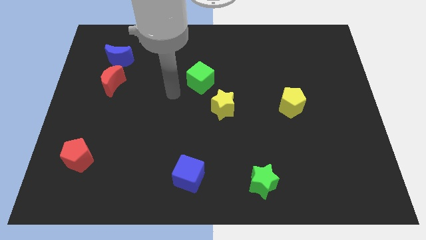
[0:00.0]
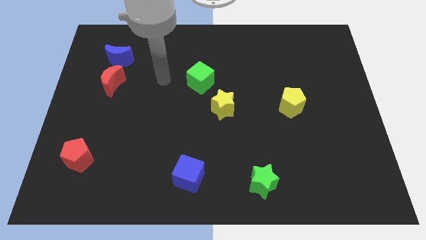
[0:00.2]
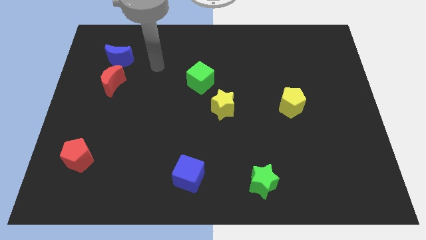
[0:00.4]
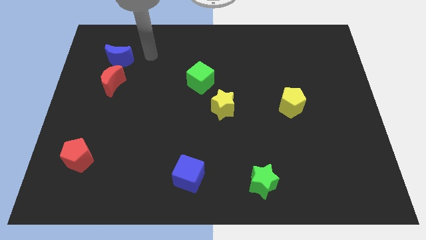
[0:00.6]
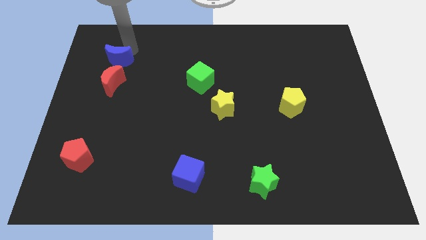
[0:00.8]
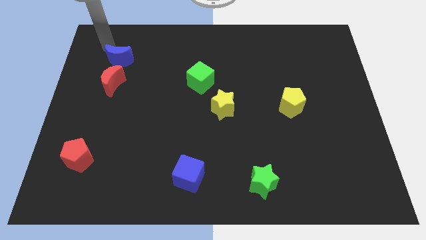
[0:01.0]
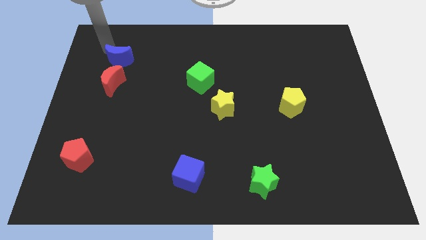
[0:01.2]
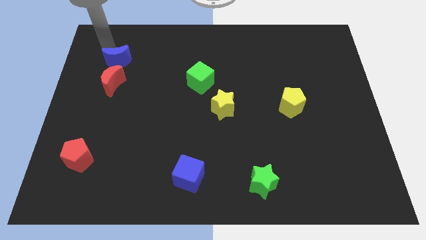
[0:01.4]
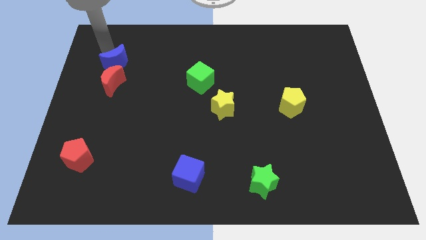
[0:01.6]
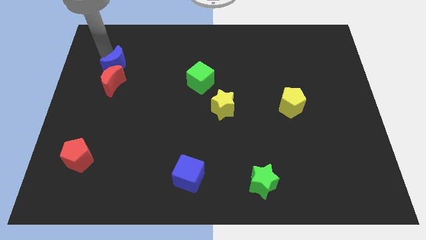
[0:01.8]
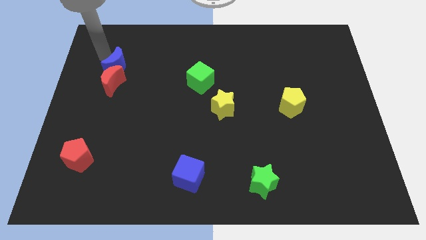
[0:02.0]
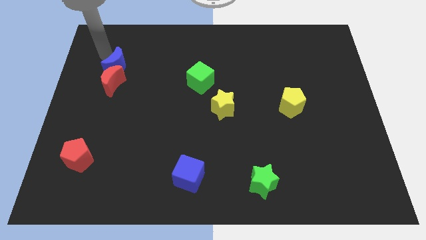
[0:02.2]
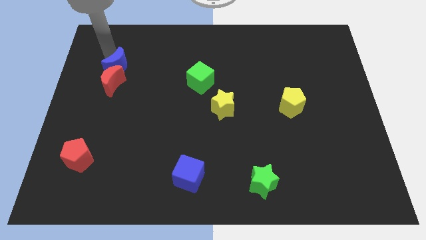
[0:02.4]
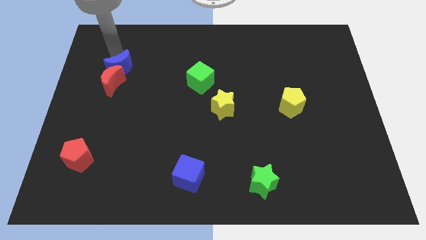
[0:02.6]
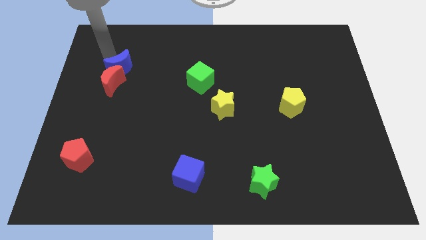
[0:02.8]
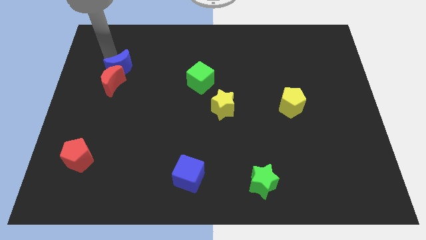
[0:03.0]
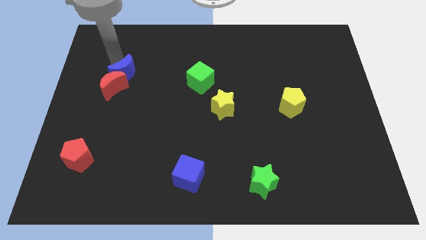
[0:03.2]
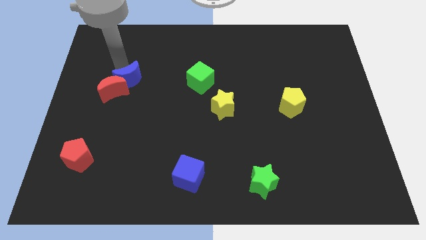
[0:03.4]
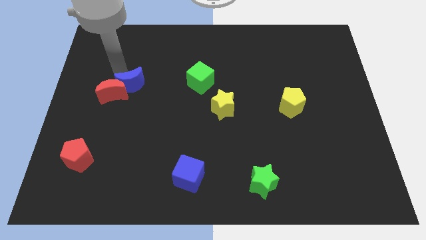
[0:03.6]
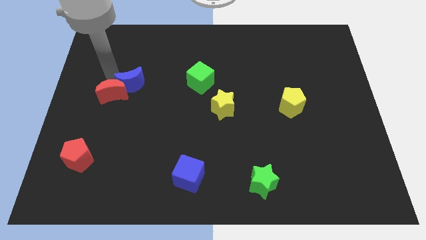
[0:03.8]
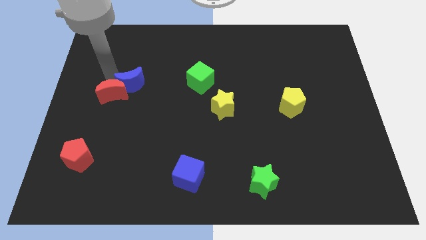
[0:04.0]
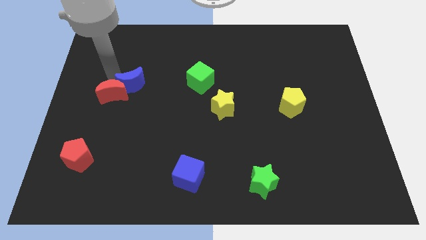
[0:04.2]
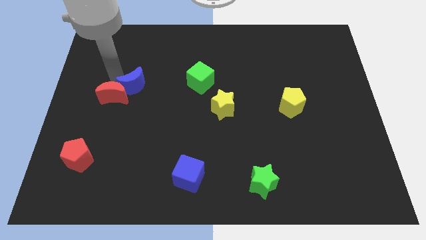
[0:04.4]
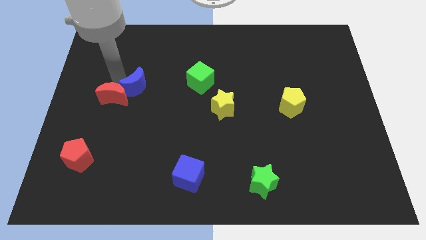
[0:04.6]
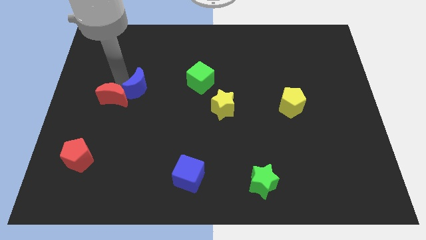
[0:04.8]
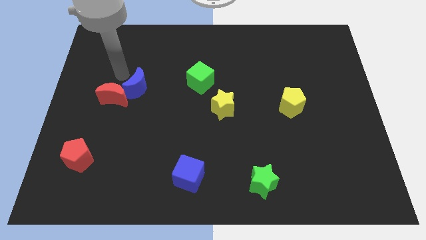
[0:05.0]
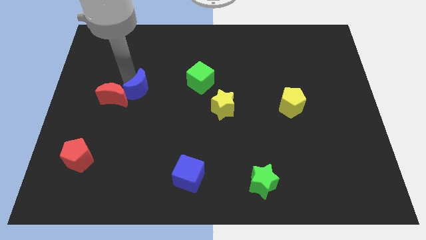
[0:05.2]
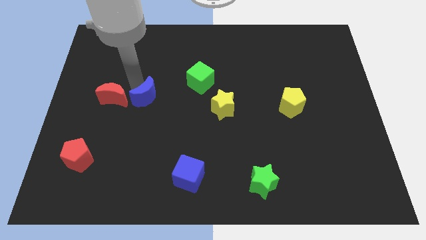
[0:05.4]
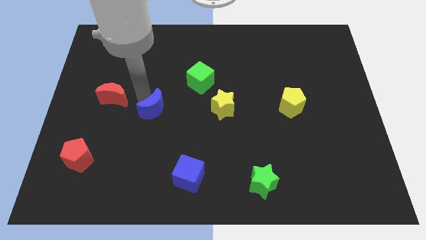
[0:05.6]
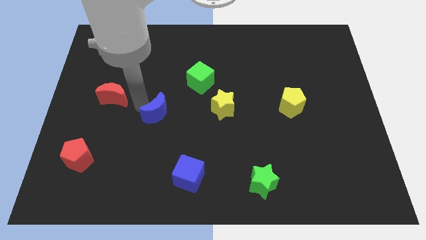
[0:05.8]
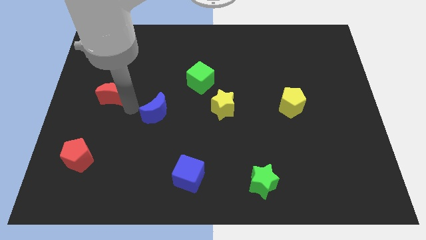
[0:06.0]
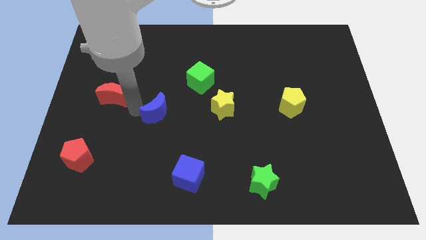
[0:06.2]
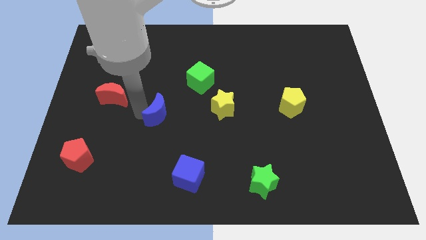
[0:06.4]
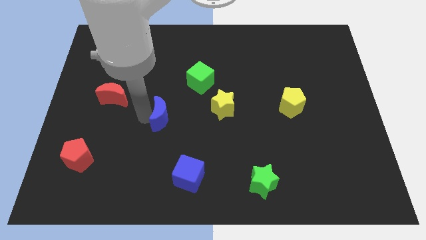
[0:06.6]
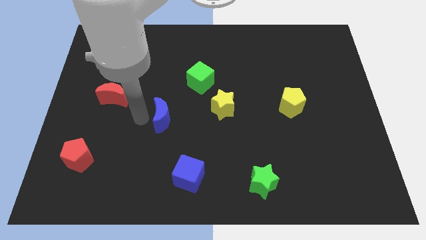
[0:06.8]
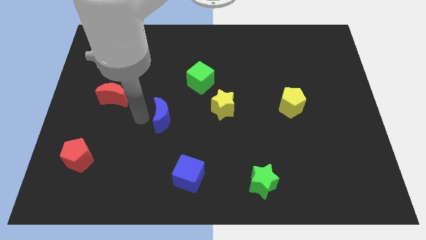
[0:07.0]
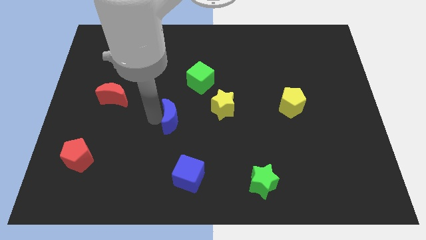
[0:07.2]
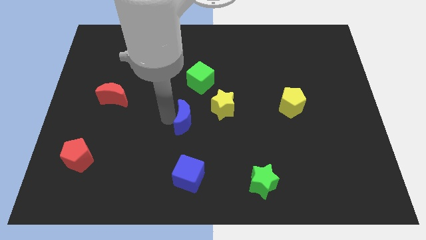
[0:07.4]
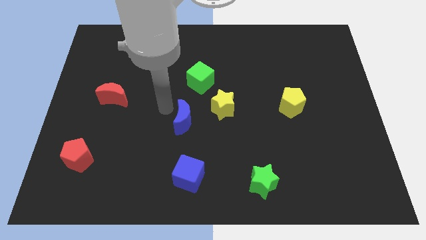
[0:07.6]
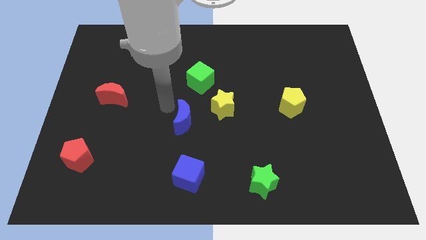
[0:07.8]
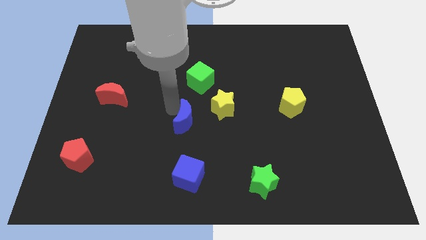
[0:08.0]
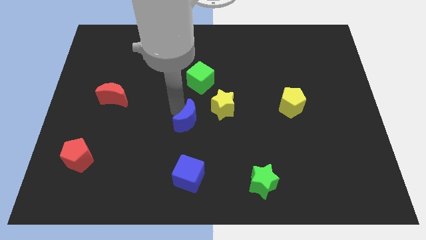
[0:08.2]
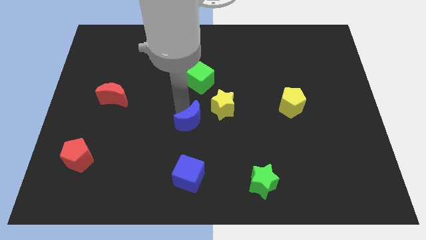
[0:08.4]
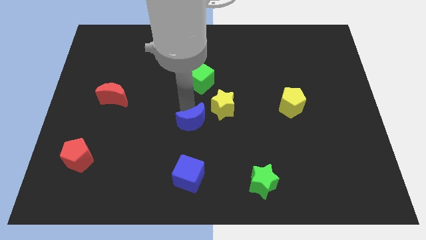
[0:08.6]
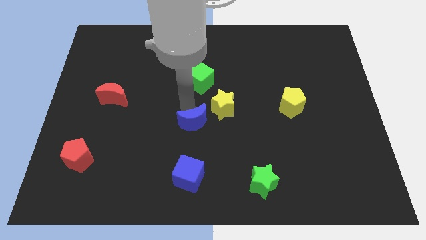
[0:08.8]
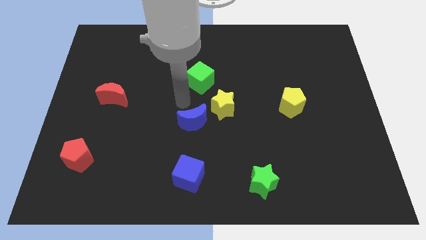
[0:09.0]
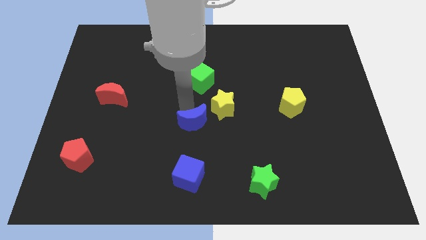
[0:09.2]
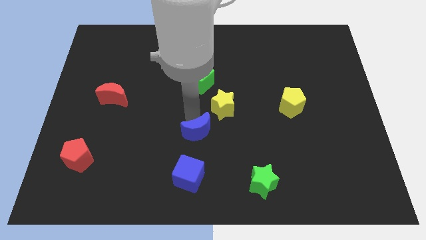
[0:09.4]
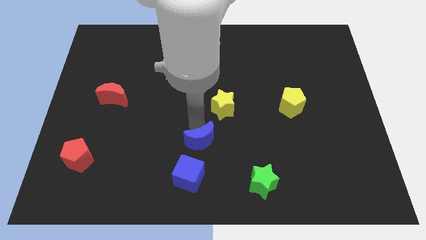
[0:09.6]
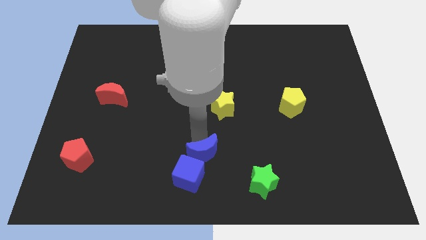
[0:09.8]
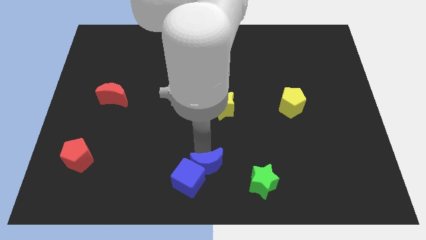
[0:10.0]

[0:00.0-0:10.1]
put the blue moon to the left of the green star

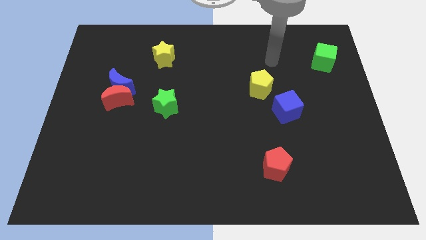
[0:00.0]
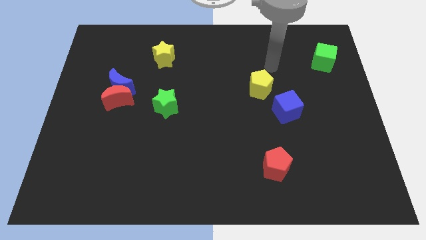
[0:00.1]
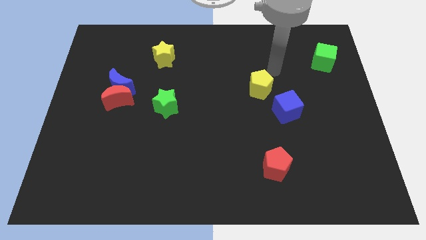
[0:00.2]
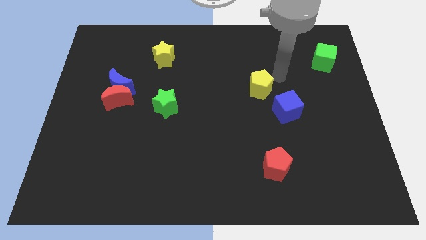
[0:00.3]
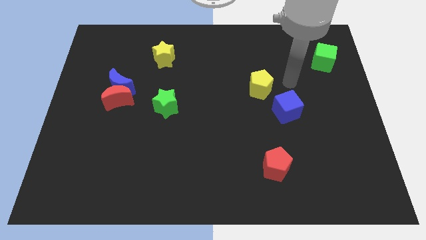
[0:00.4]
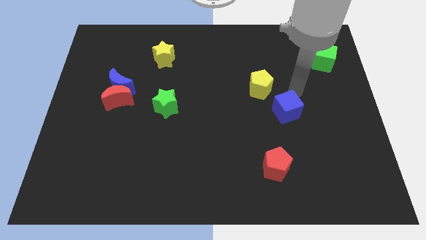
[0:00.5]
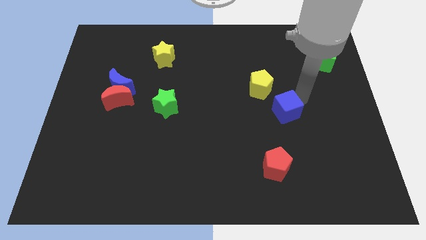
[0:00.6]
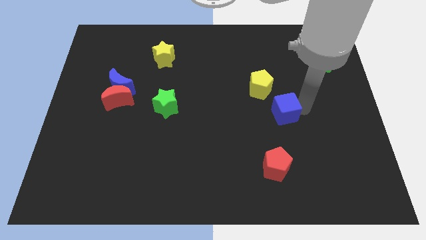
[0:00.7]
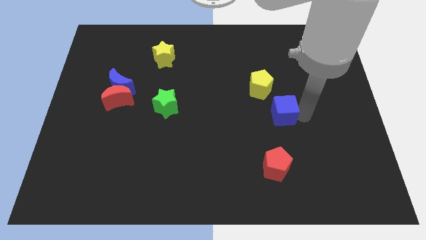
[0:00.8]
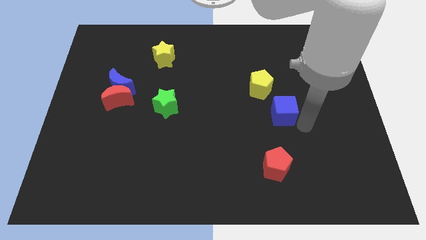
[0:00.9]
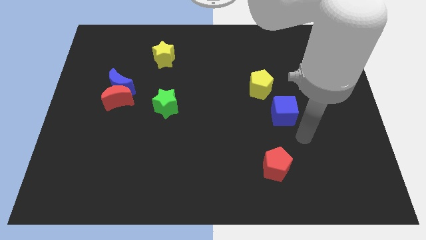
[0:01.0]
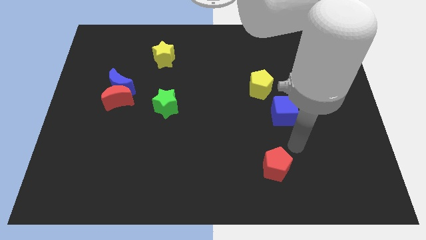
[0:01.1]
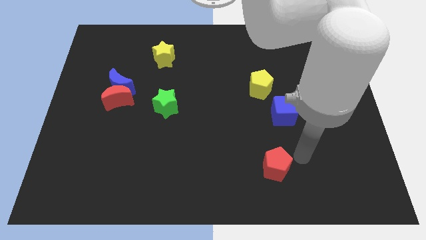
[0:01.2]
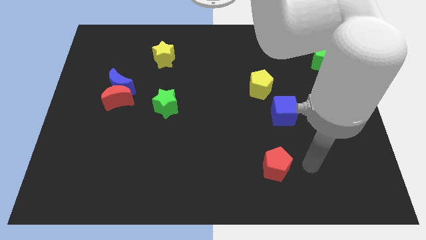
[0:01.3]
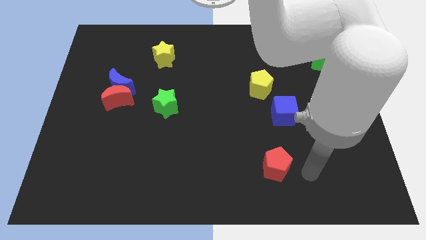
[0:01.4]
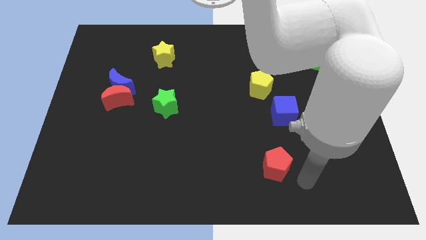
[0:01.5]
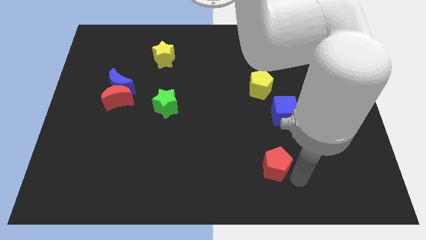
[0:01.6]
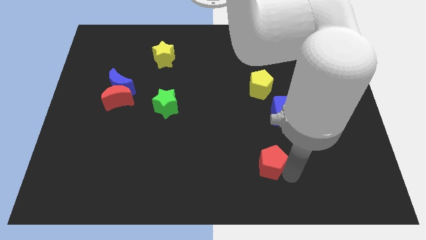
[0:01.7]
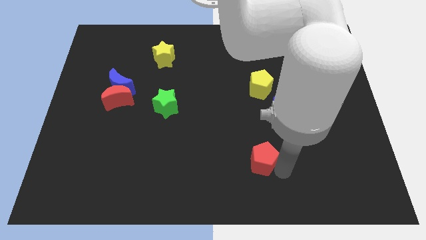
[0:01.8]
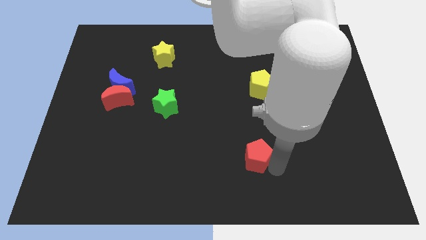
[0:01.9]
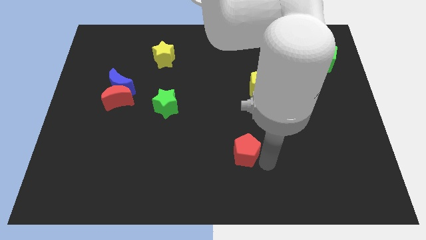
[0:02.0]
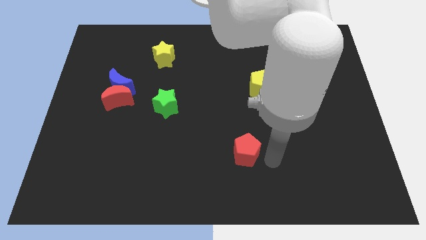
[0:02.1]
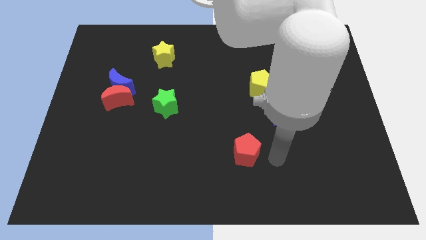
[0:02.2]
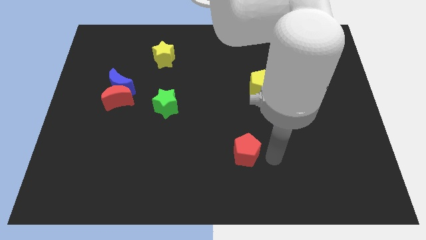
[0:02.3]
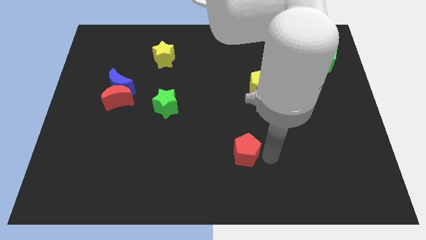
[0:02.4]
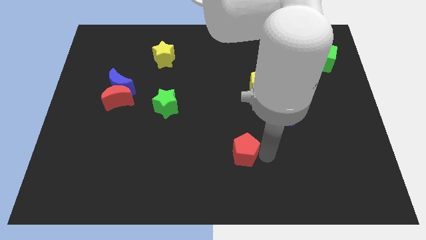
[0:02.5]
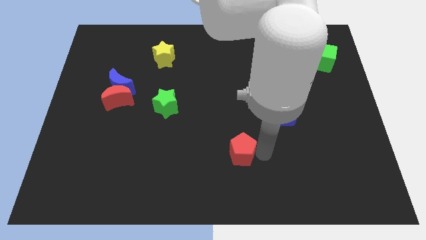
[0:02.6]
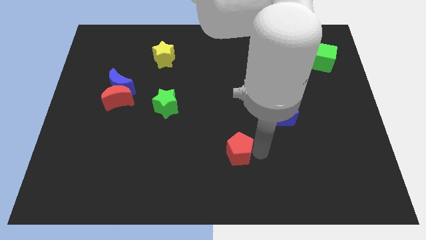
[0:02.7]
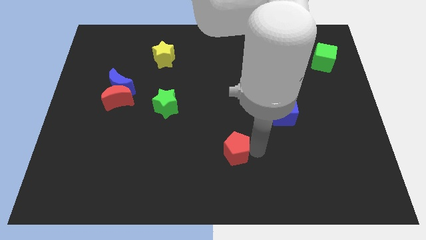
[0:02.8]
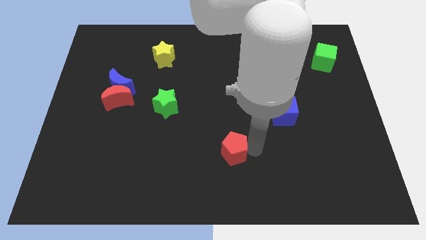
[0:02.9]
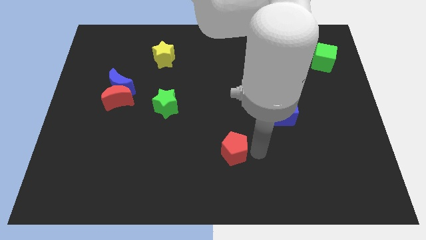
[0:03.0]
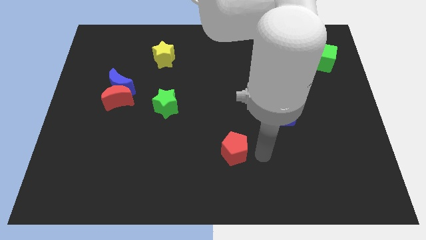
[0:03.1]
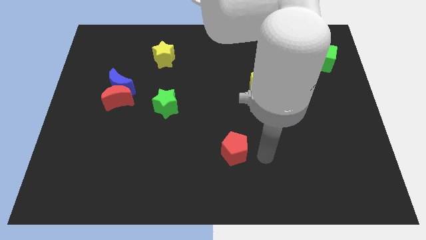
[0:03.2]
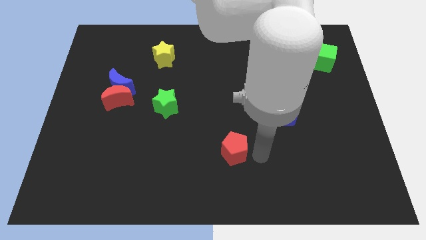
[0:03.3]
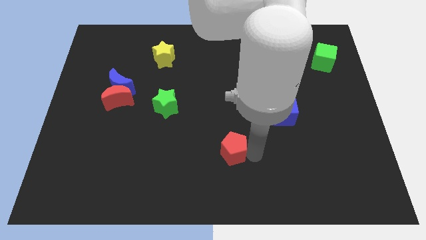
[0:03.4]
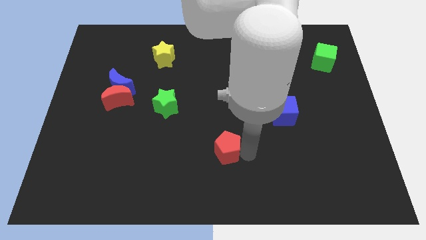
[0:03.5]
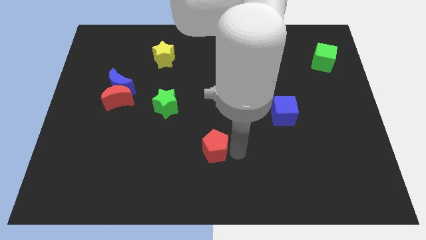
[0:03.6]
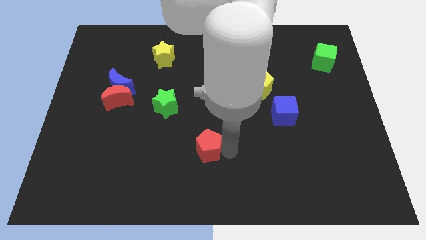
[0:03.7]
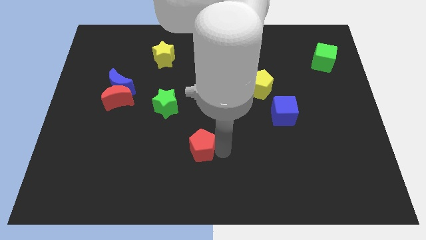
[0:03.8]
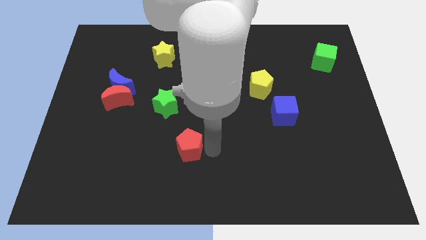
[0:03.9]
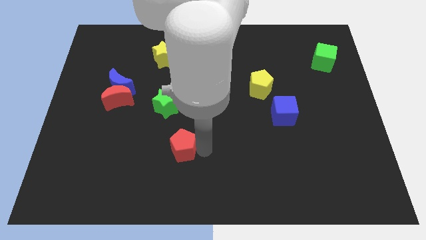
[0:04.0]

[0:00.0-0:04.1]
put the red pentagon to the bottom of the green star
